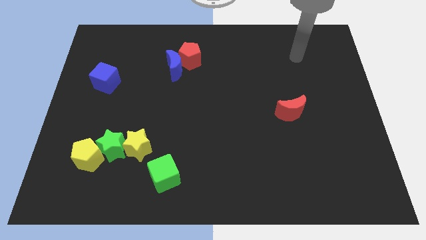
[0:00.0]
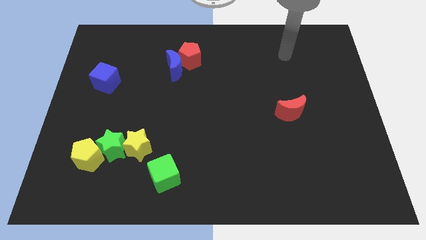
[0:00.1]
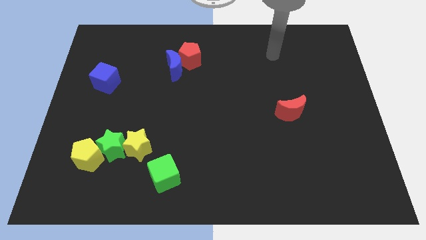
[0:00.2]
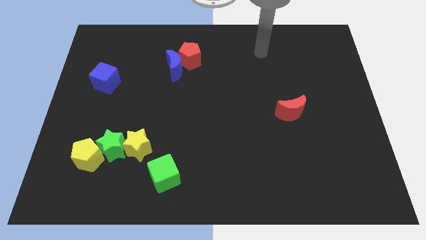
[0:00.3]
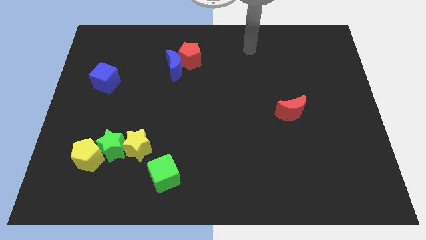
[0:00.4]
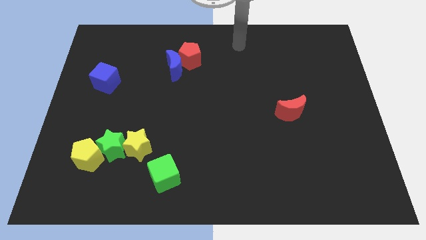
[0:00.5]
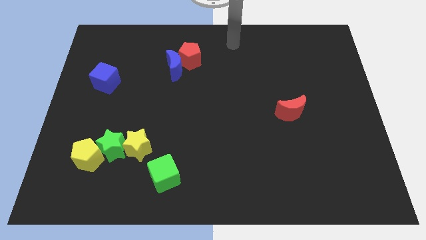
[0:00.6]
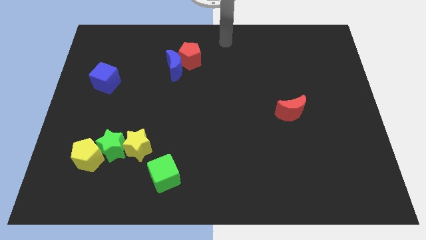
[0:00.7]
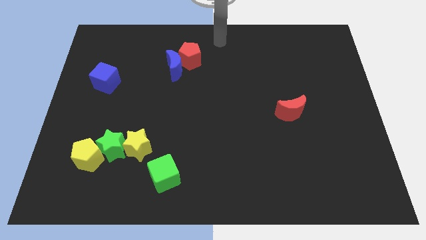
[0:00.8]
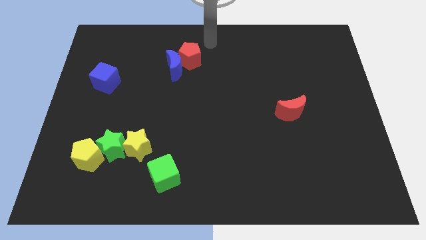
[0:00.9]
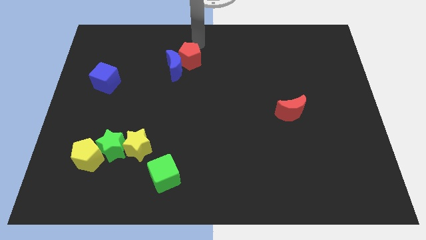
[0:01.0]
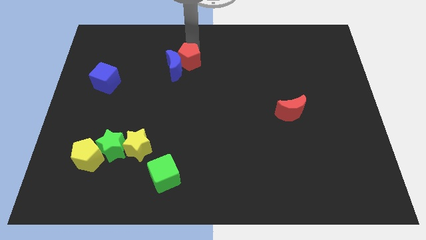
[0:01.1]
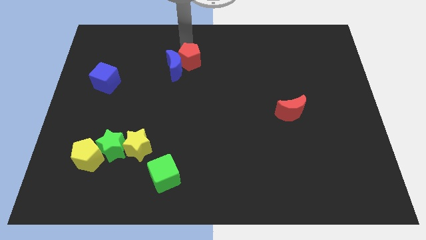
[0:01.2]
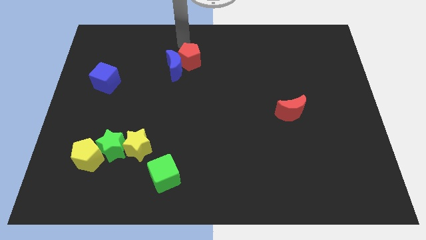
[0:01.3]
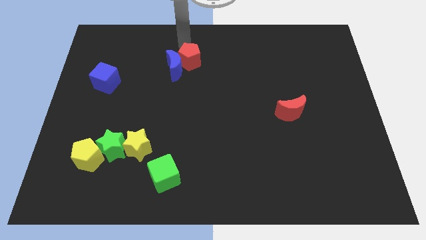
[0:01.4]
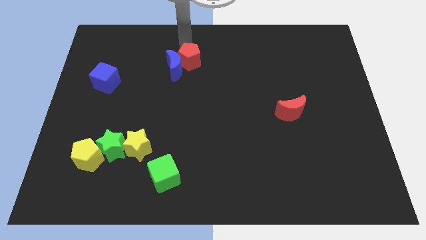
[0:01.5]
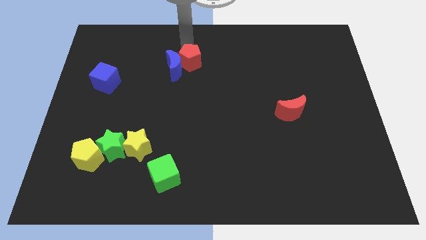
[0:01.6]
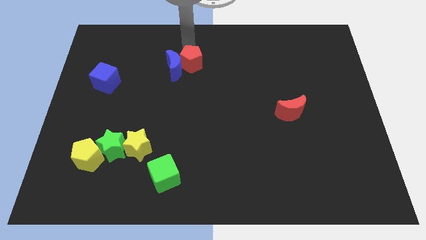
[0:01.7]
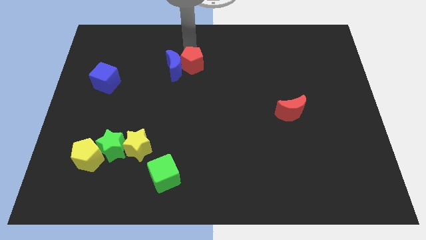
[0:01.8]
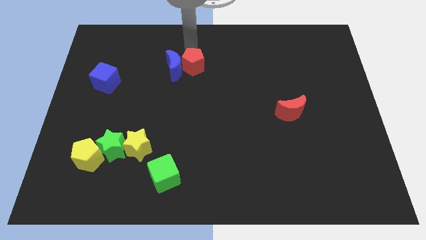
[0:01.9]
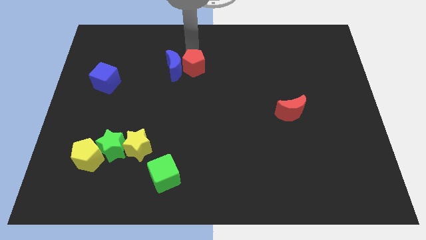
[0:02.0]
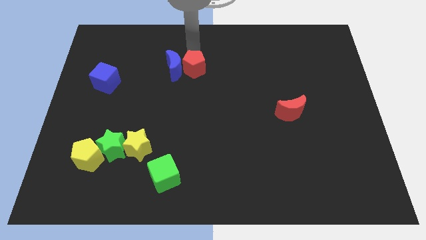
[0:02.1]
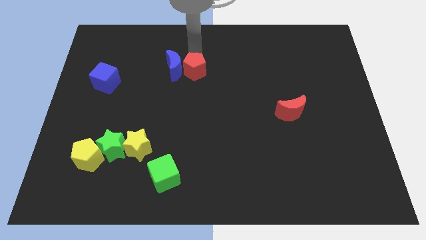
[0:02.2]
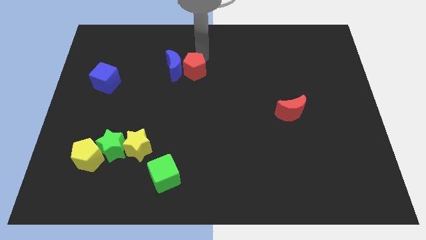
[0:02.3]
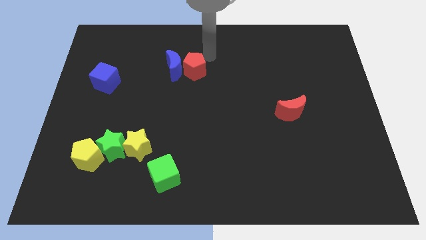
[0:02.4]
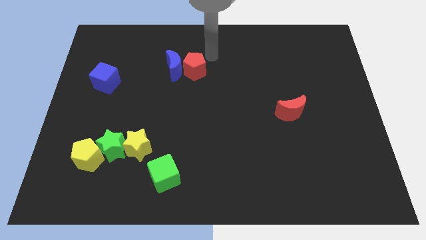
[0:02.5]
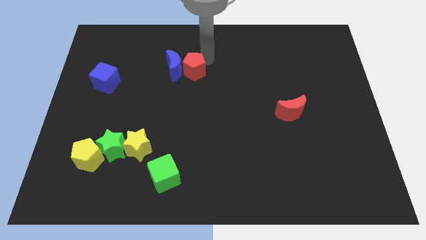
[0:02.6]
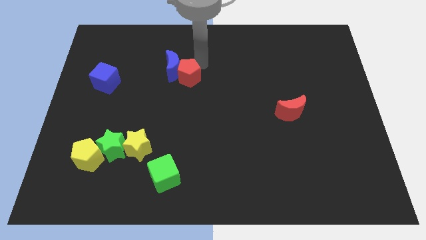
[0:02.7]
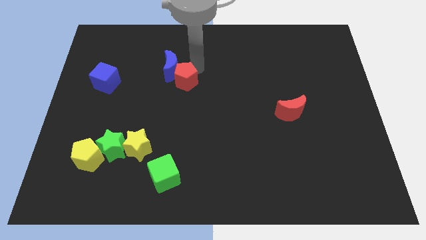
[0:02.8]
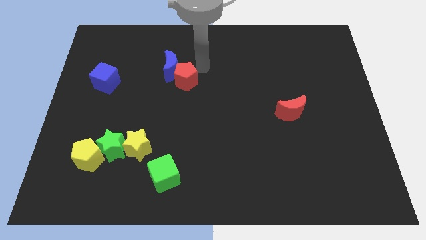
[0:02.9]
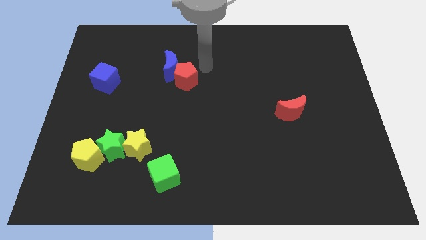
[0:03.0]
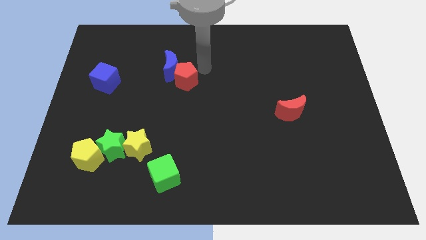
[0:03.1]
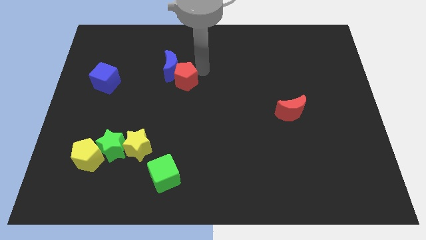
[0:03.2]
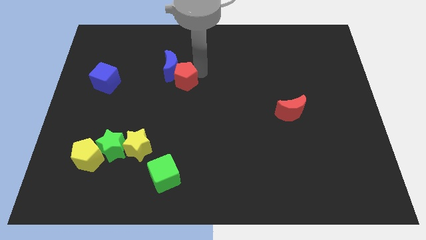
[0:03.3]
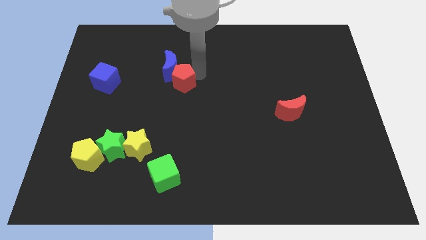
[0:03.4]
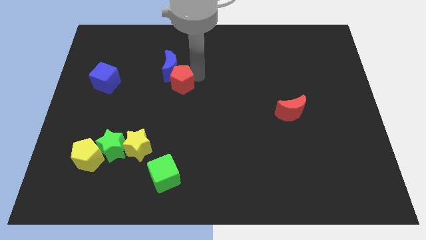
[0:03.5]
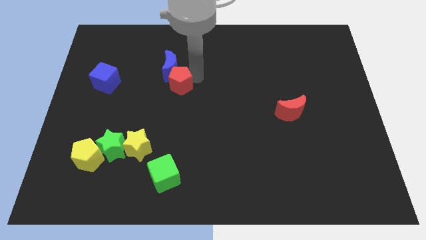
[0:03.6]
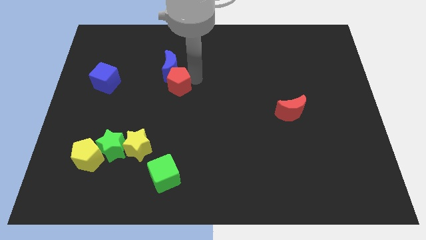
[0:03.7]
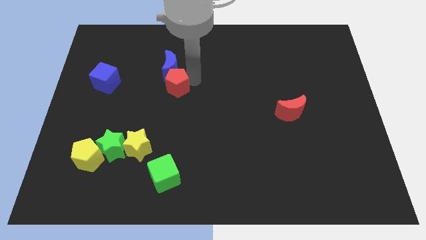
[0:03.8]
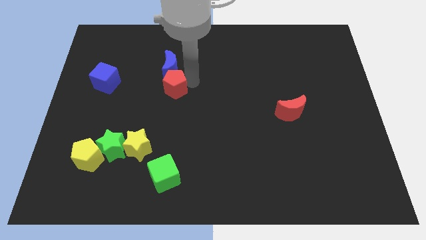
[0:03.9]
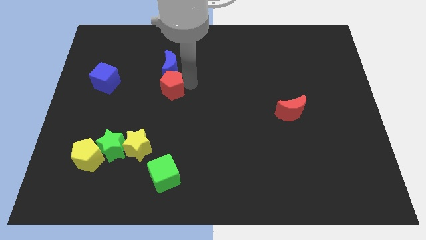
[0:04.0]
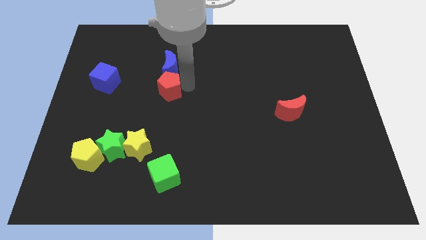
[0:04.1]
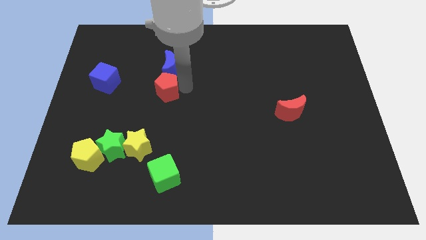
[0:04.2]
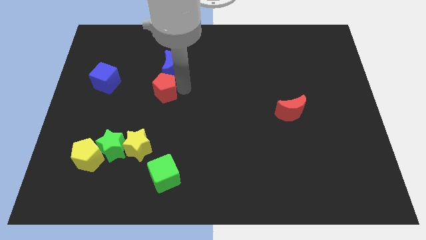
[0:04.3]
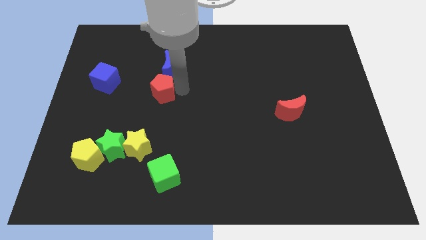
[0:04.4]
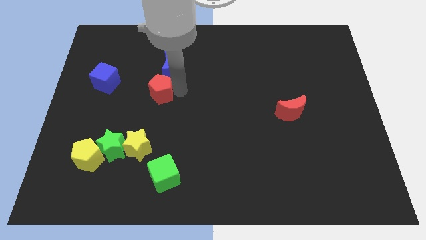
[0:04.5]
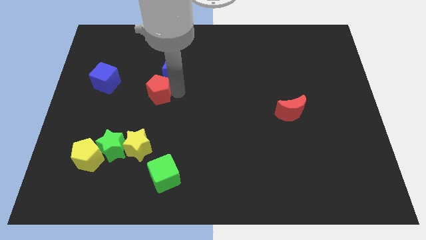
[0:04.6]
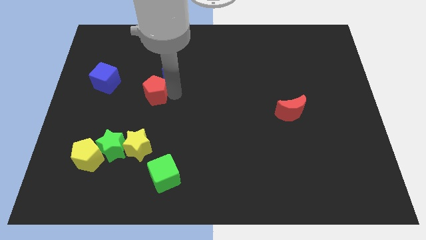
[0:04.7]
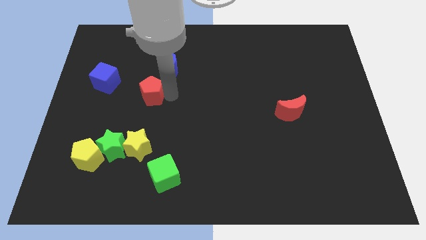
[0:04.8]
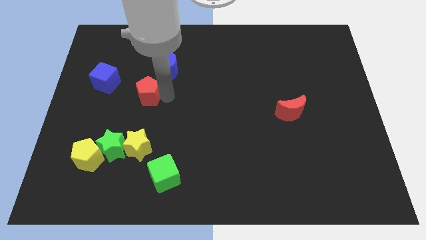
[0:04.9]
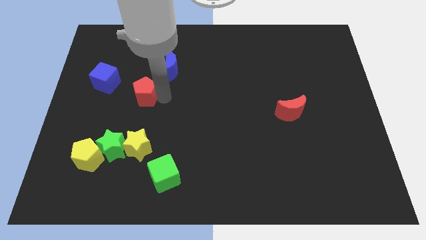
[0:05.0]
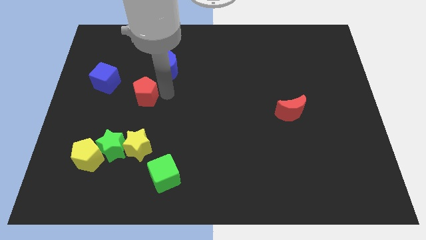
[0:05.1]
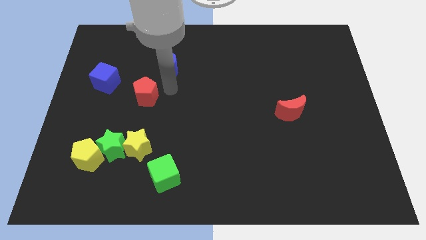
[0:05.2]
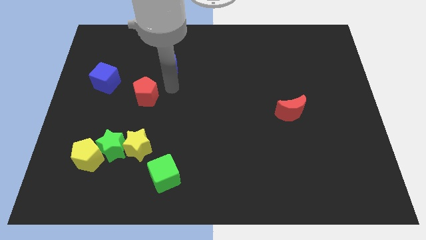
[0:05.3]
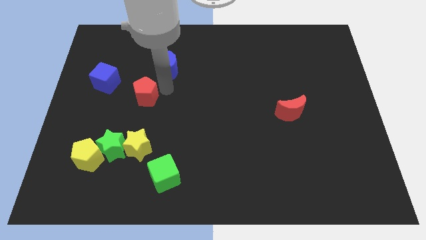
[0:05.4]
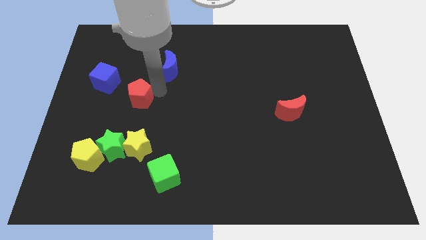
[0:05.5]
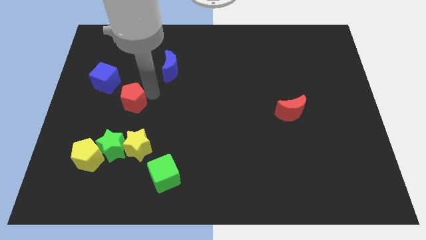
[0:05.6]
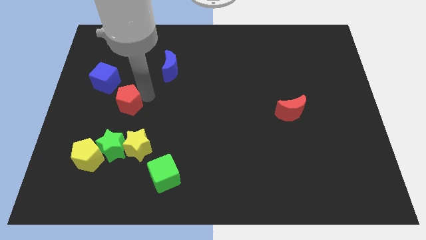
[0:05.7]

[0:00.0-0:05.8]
push the red pentagon down and to the left diagonally

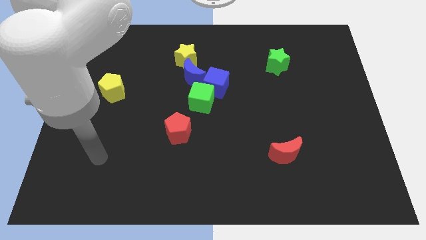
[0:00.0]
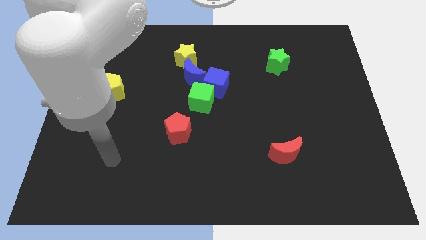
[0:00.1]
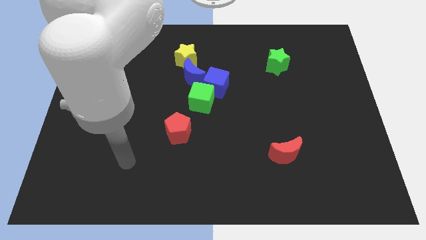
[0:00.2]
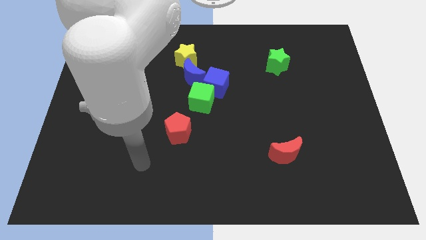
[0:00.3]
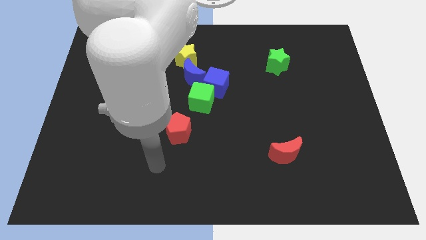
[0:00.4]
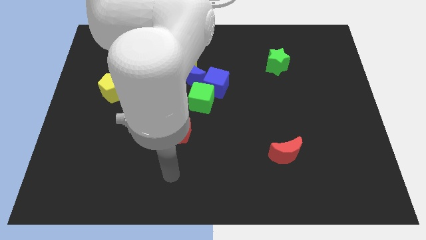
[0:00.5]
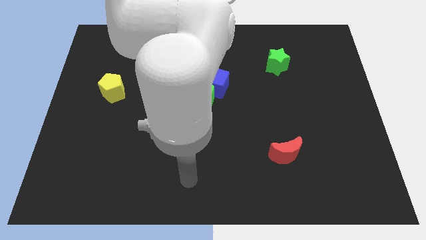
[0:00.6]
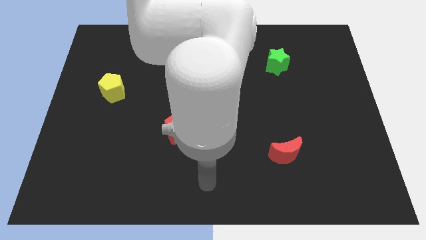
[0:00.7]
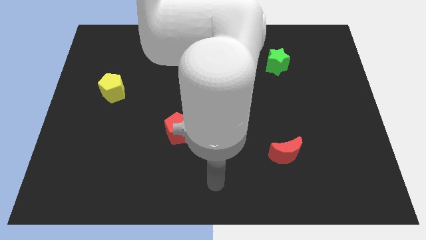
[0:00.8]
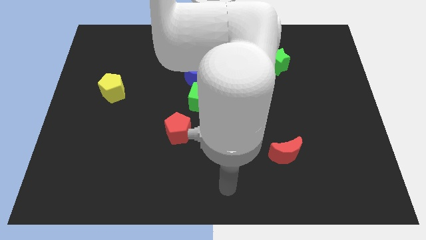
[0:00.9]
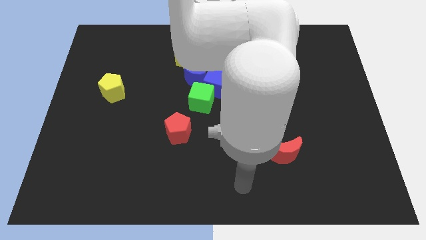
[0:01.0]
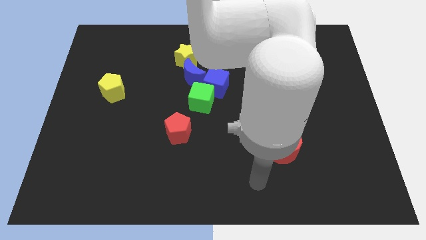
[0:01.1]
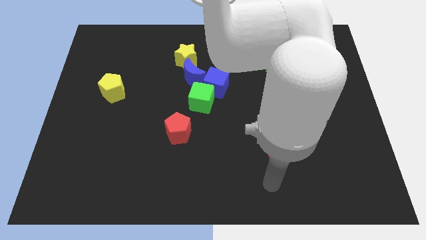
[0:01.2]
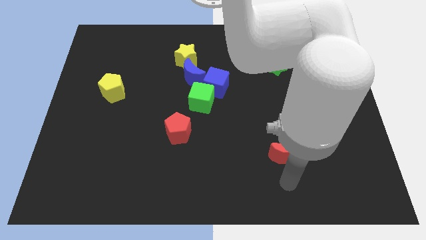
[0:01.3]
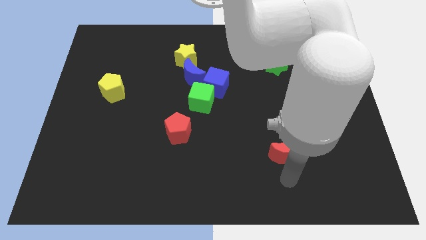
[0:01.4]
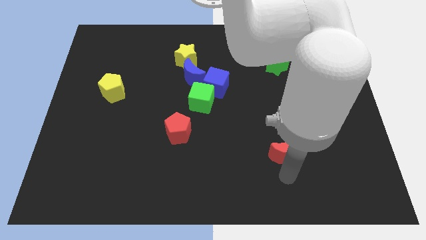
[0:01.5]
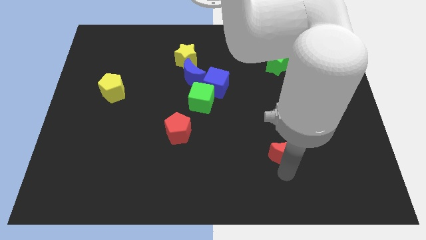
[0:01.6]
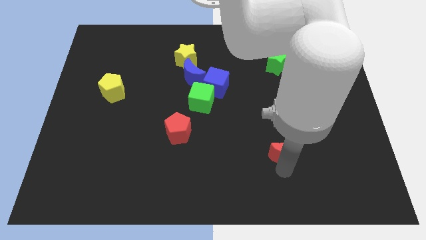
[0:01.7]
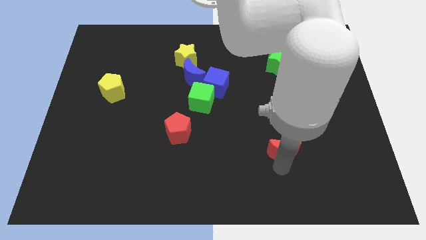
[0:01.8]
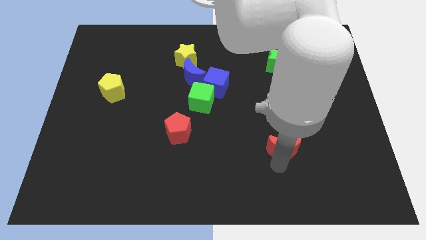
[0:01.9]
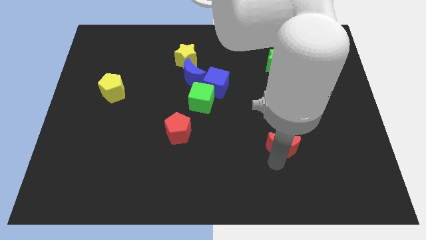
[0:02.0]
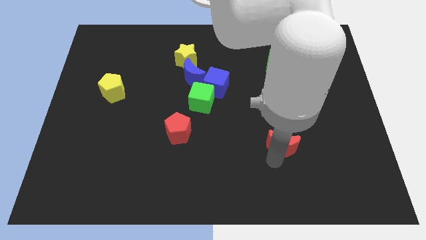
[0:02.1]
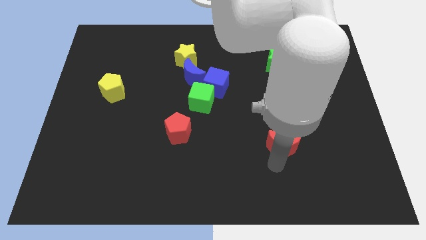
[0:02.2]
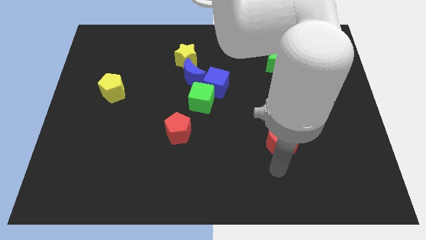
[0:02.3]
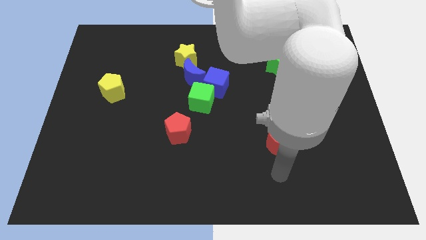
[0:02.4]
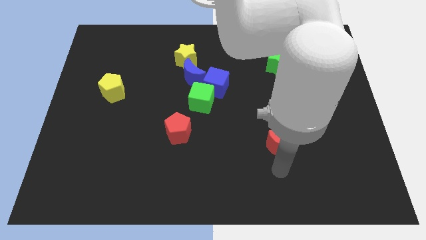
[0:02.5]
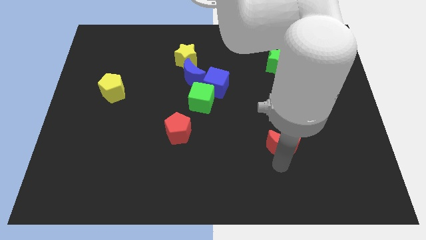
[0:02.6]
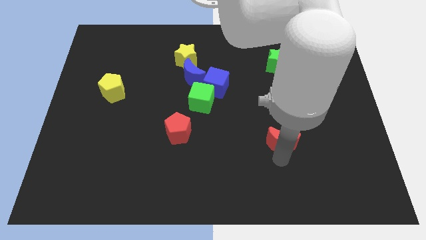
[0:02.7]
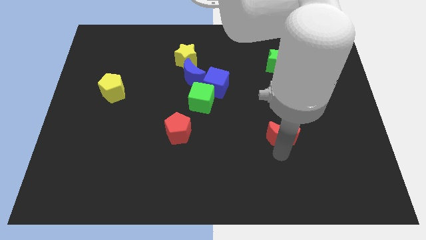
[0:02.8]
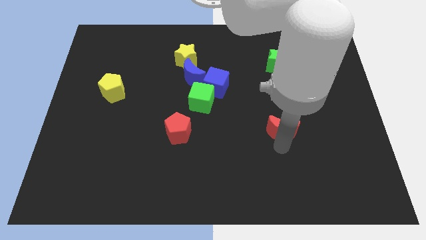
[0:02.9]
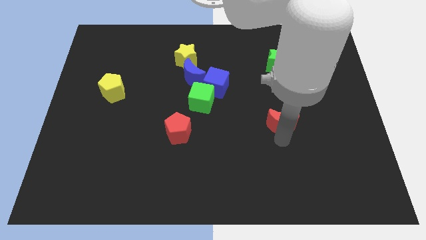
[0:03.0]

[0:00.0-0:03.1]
move the red moon up a bit
